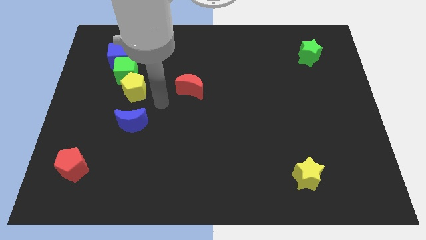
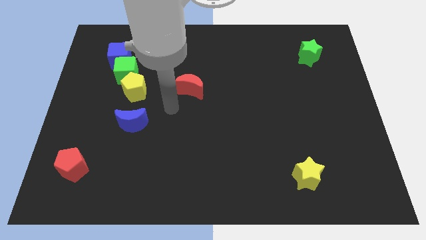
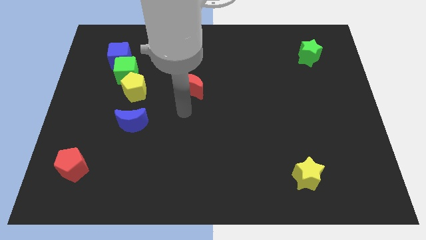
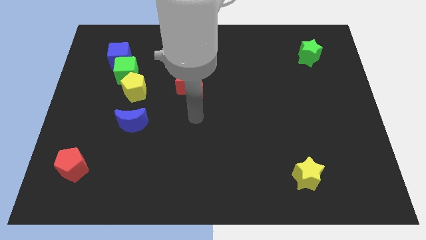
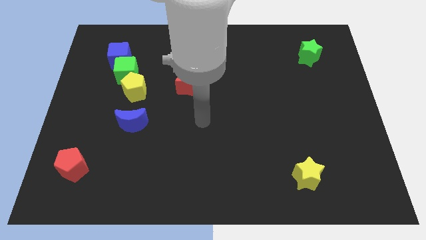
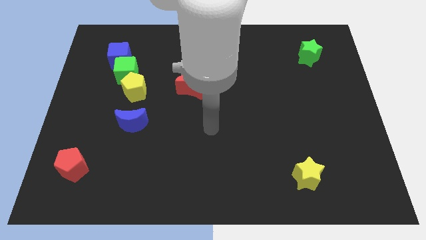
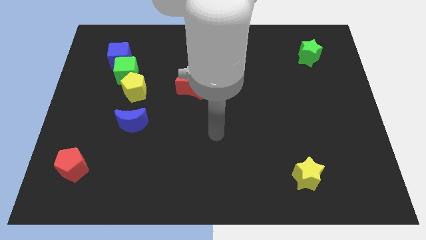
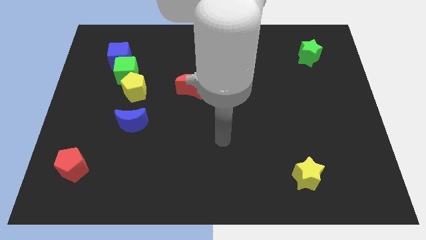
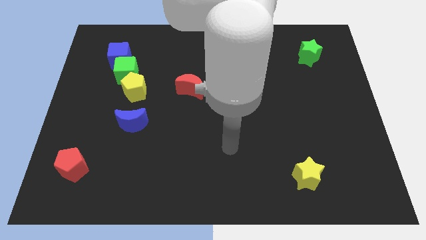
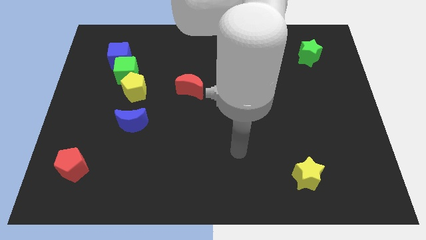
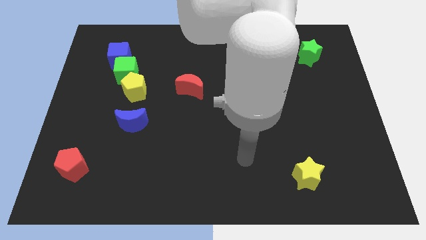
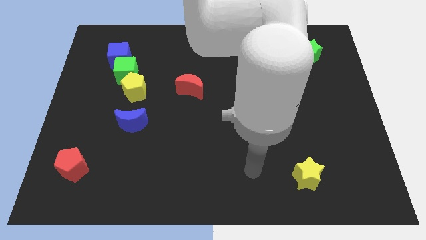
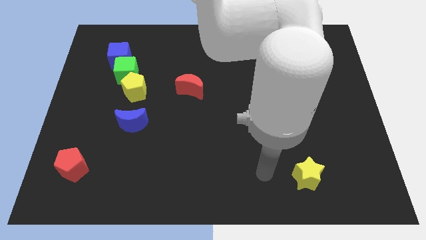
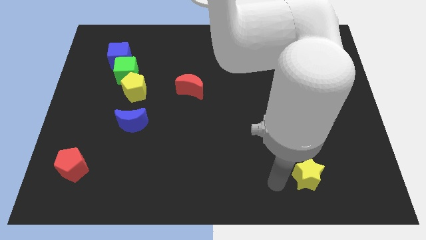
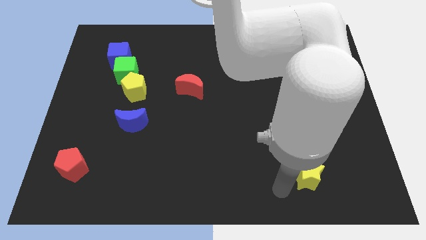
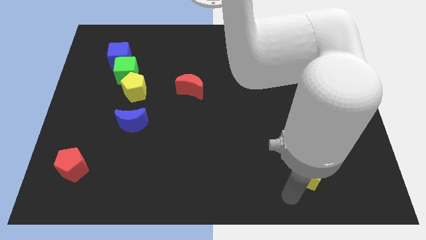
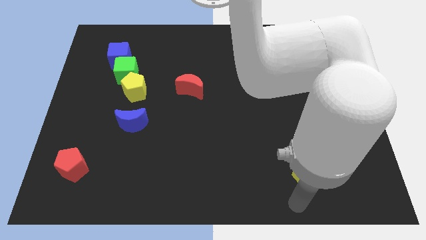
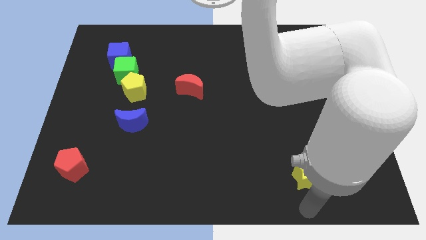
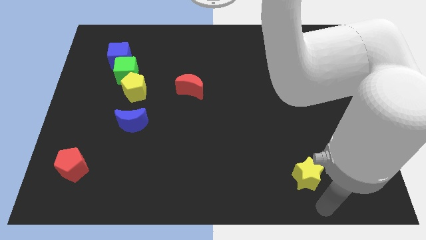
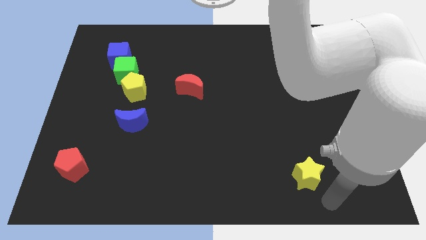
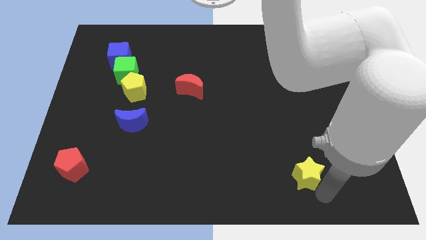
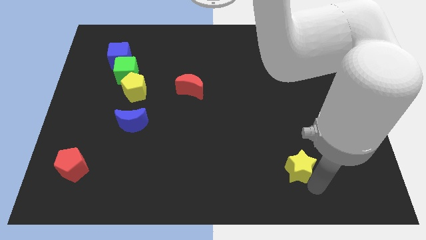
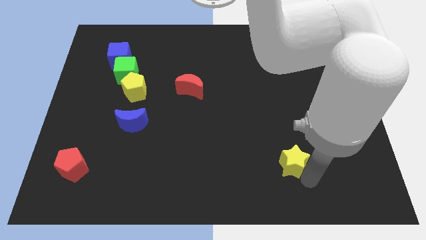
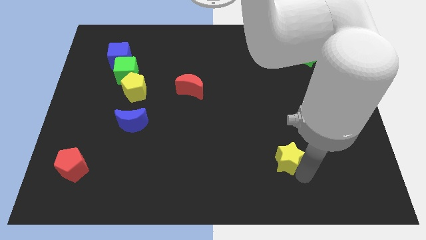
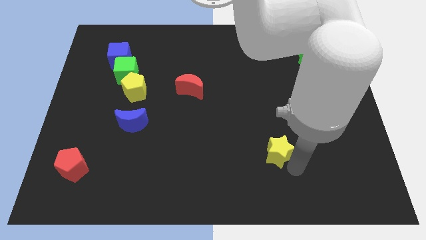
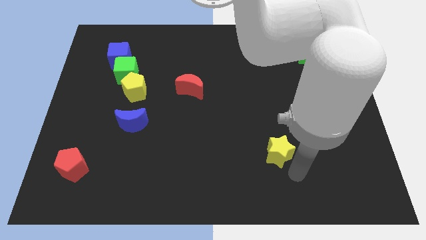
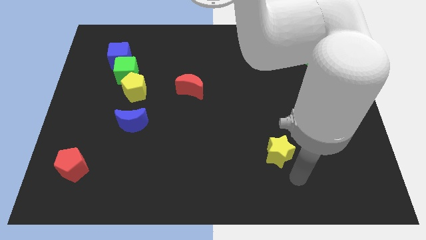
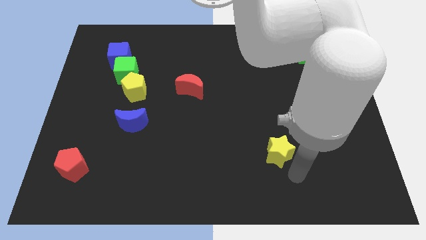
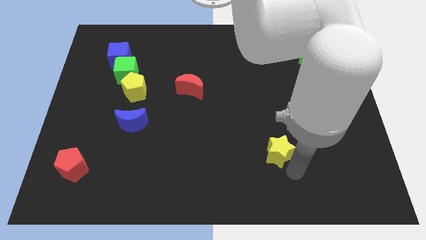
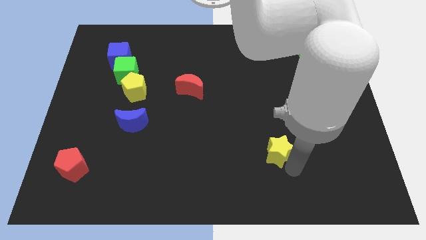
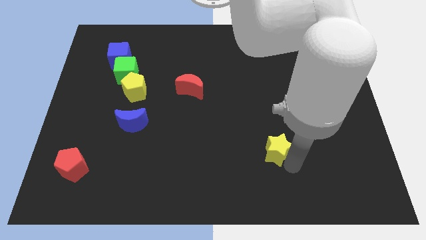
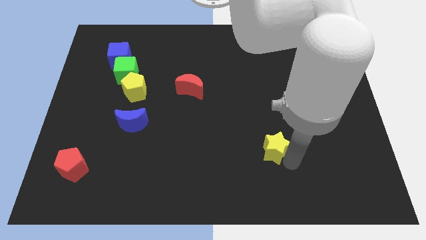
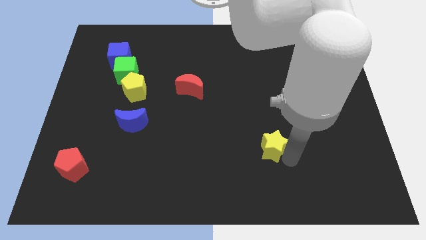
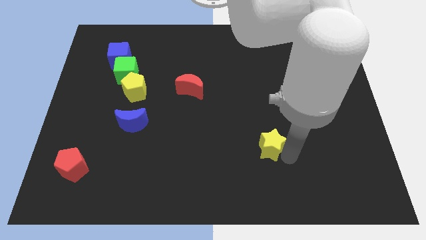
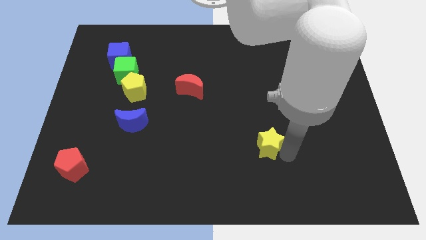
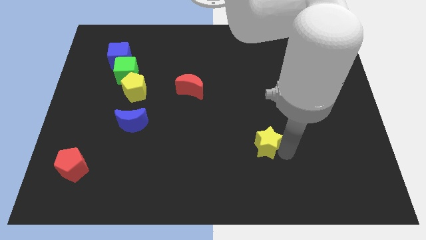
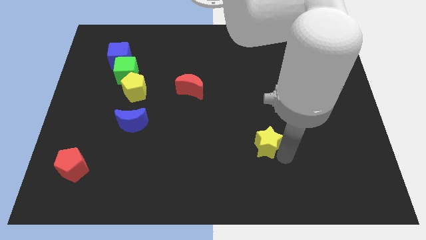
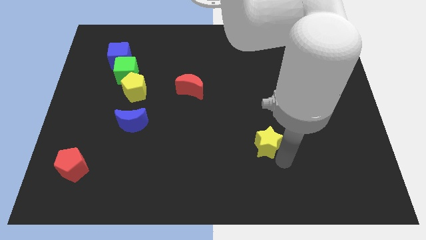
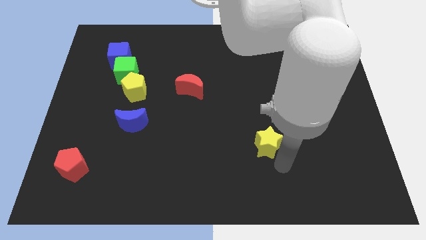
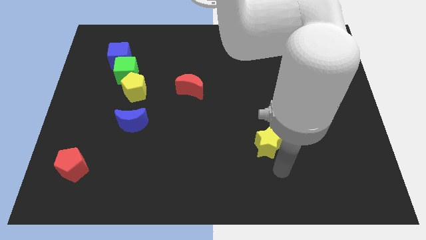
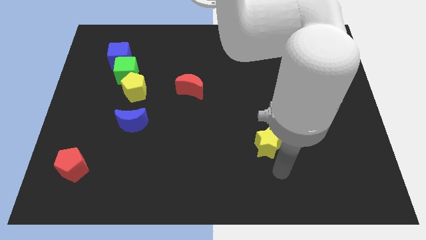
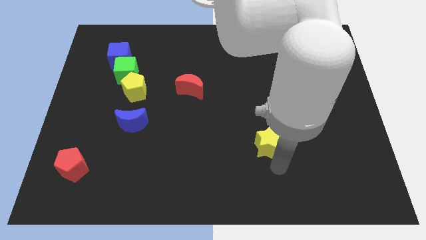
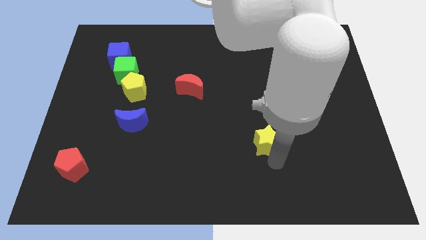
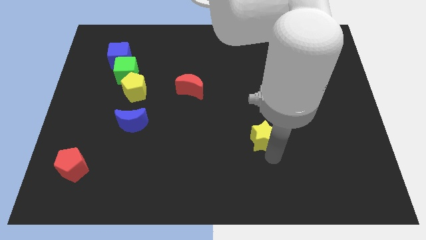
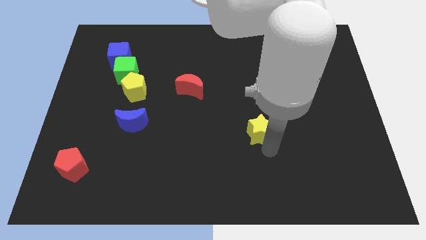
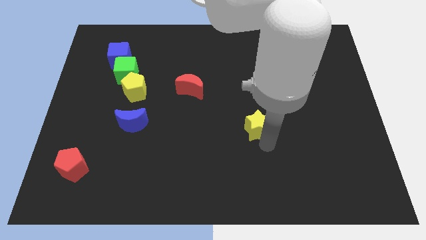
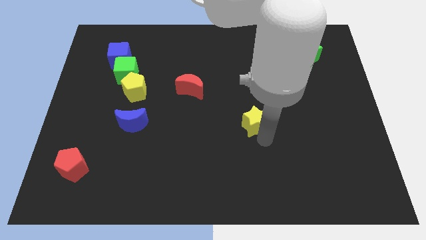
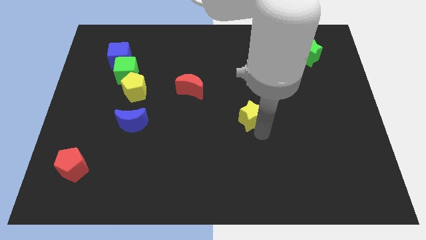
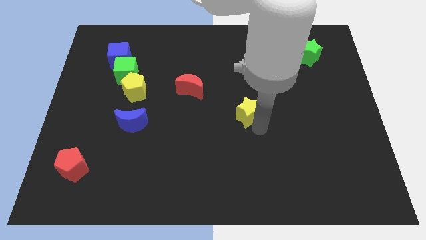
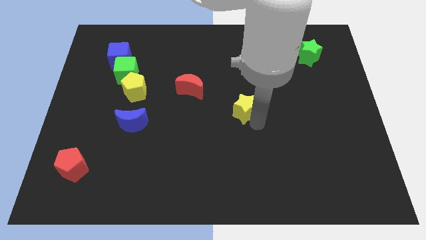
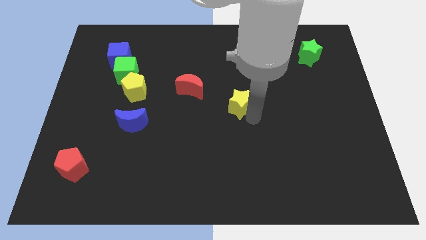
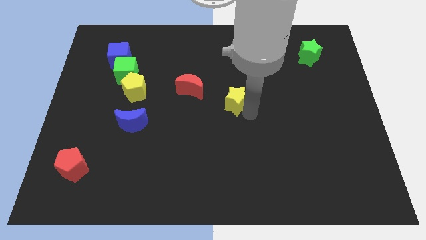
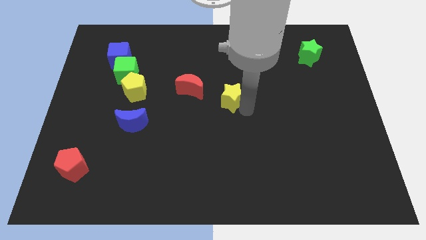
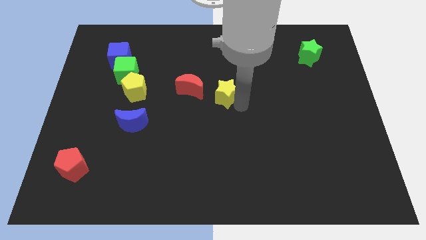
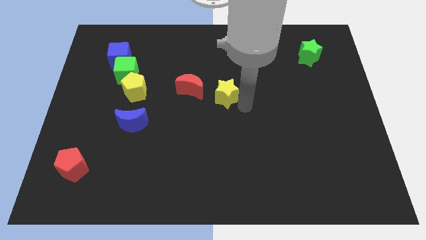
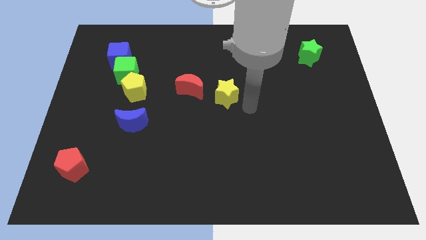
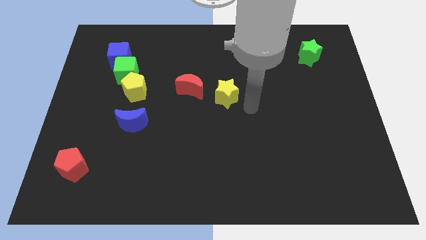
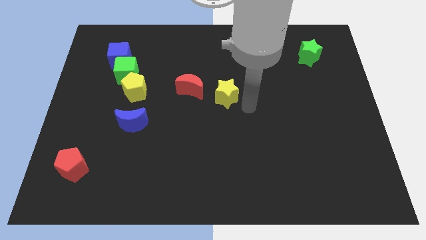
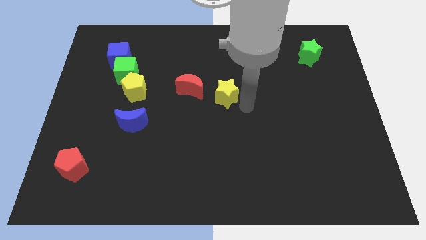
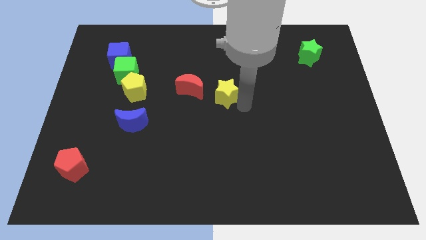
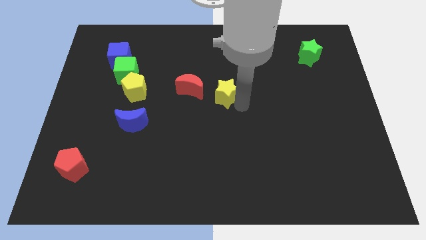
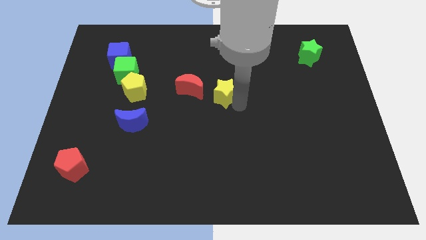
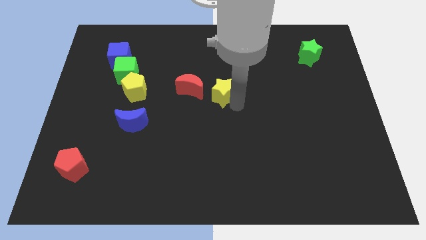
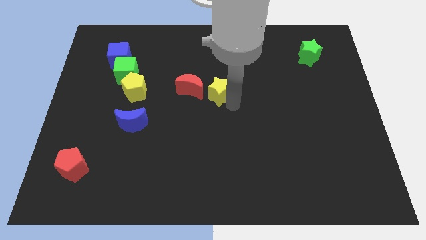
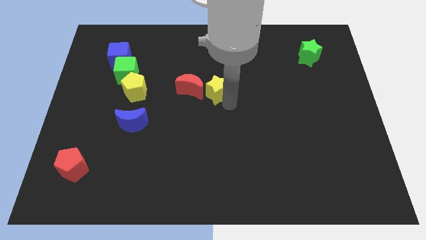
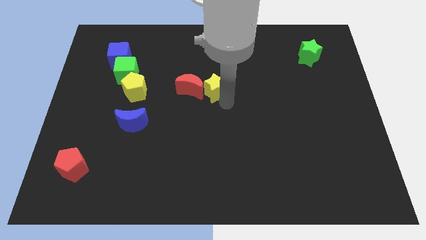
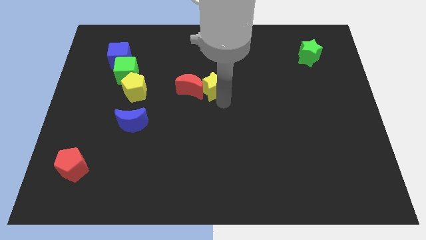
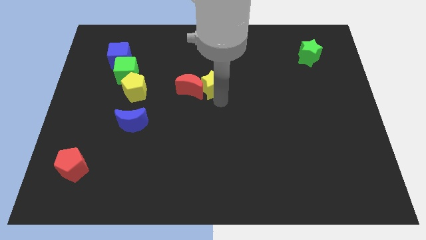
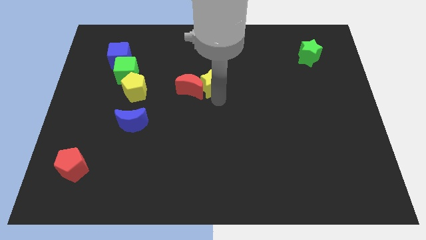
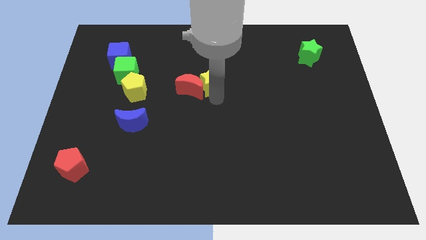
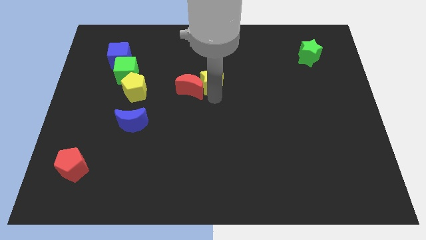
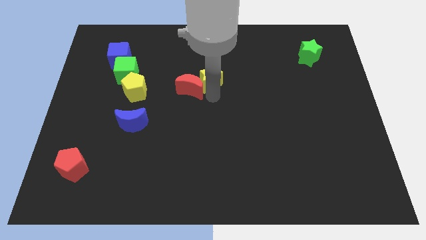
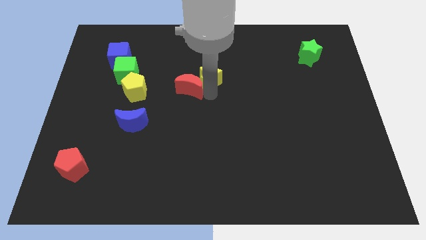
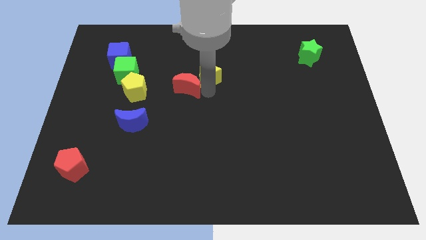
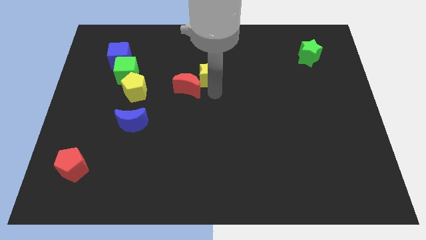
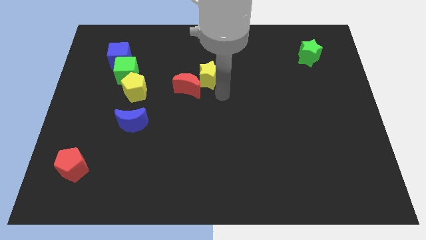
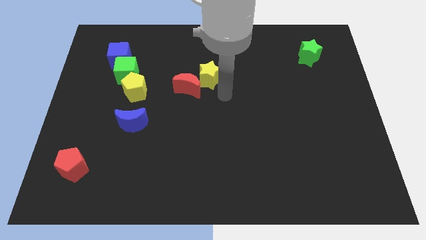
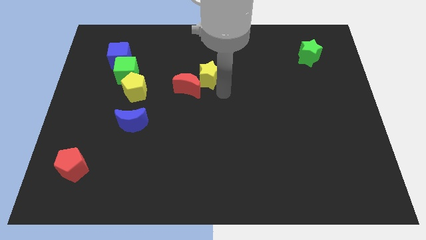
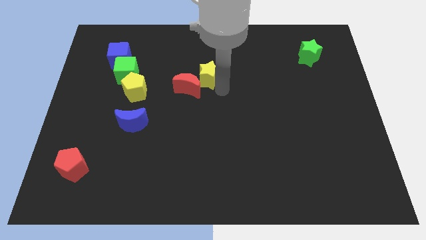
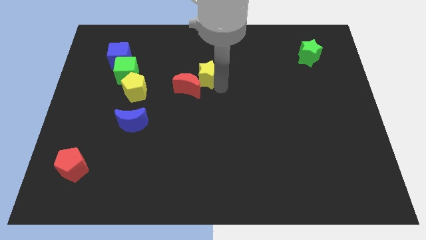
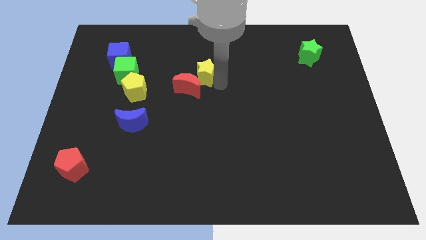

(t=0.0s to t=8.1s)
slide the yellow star above the red moon
